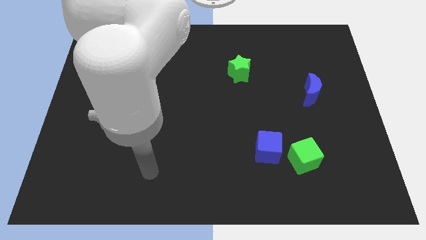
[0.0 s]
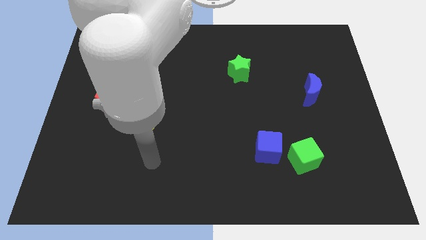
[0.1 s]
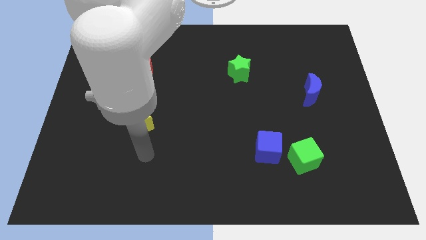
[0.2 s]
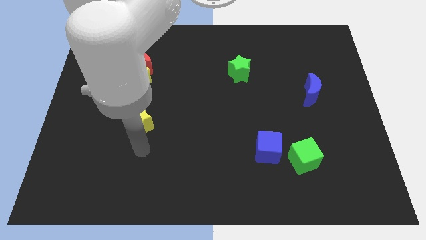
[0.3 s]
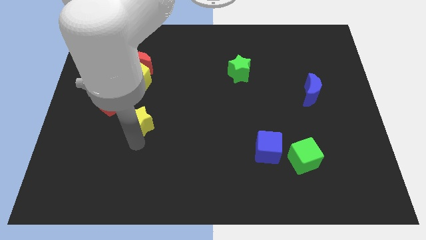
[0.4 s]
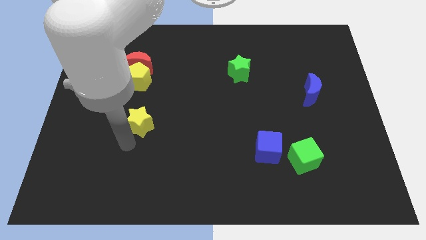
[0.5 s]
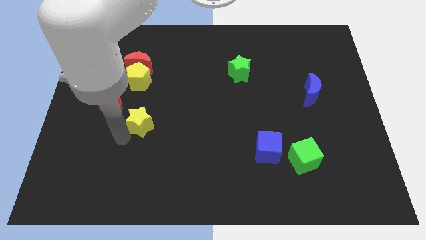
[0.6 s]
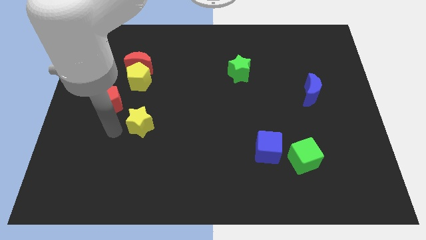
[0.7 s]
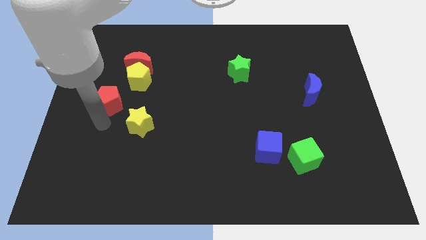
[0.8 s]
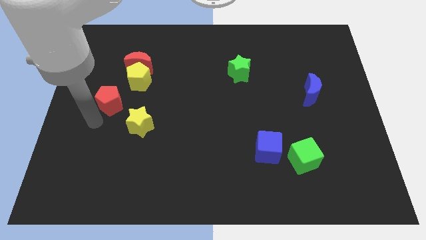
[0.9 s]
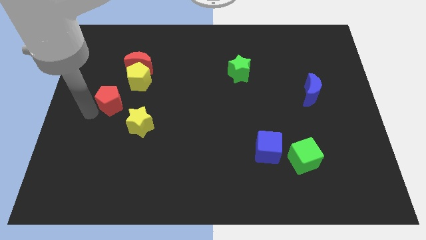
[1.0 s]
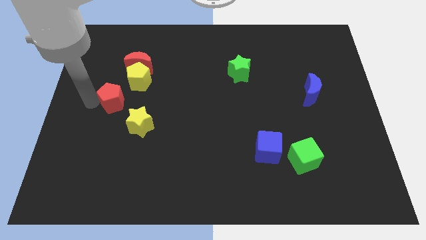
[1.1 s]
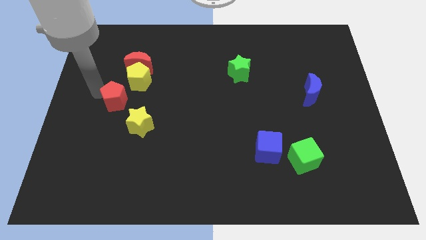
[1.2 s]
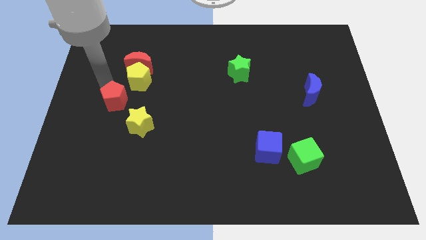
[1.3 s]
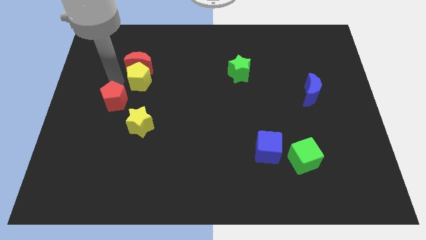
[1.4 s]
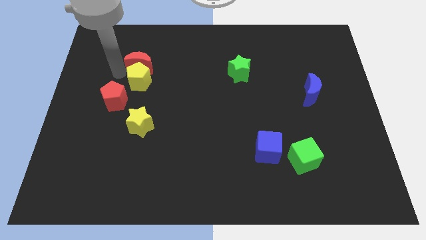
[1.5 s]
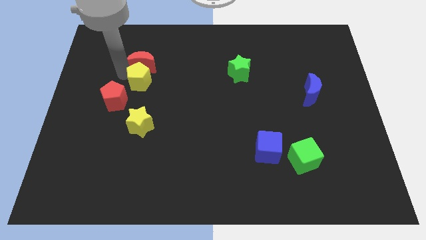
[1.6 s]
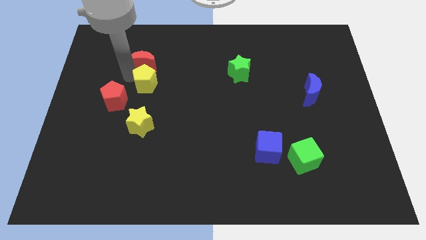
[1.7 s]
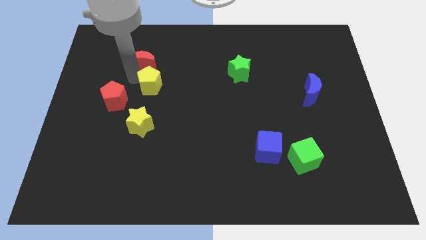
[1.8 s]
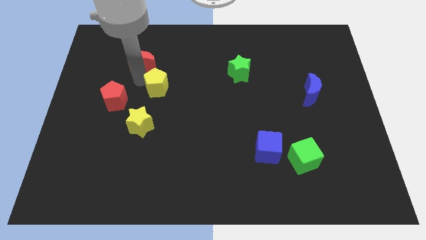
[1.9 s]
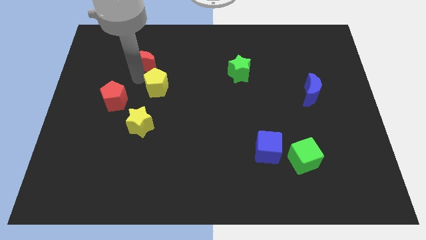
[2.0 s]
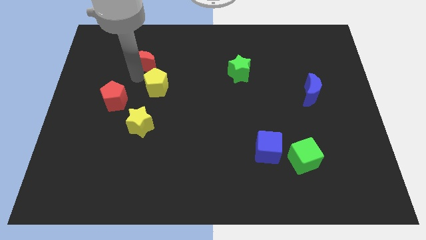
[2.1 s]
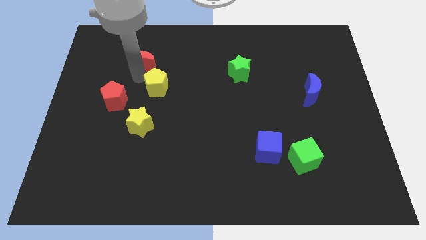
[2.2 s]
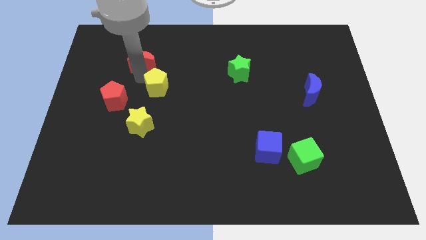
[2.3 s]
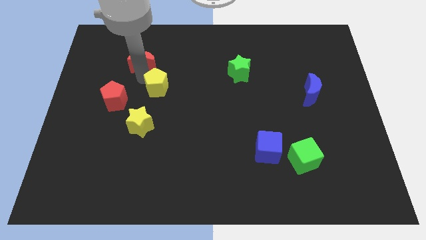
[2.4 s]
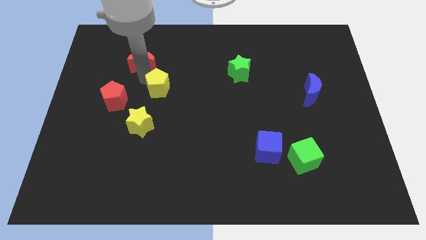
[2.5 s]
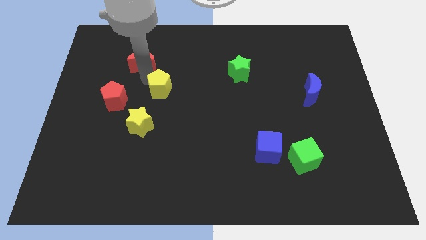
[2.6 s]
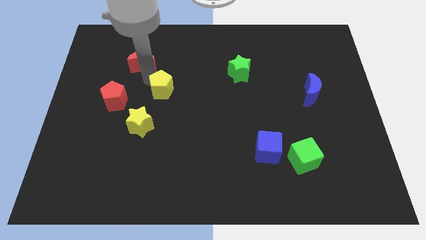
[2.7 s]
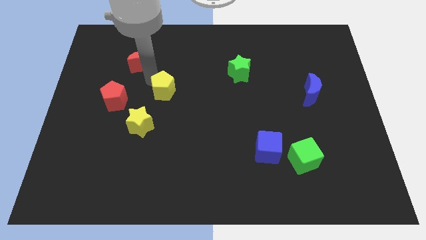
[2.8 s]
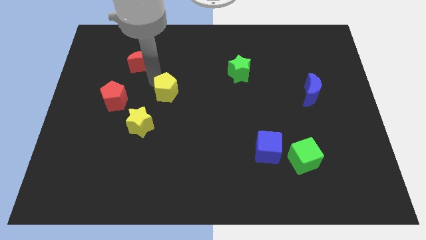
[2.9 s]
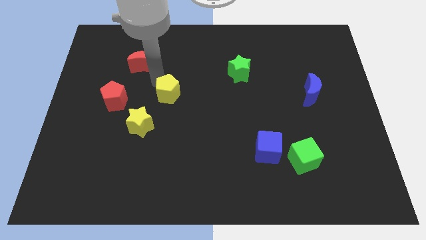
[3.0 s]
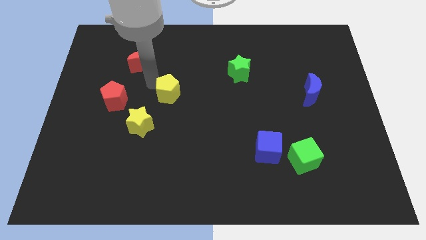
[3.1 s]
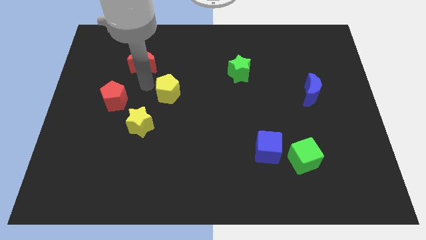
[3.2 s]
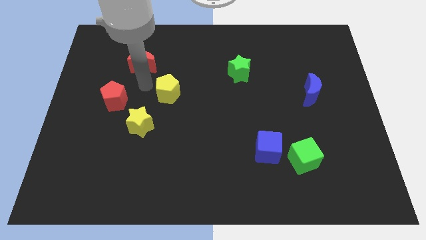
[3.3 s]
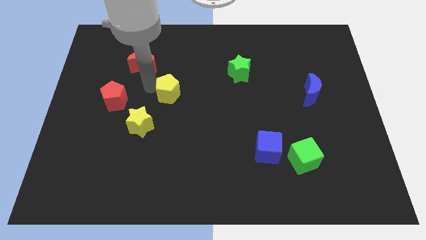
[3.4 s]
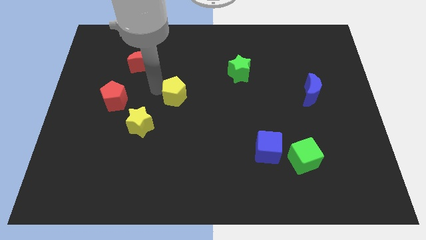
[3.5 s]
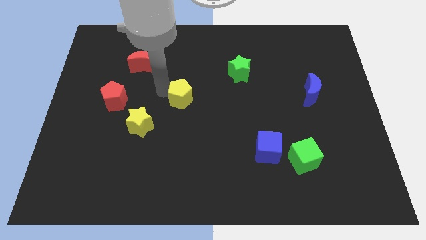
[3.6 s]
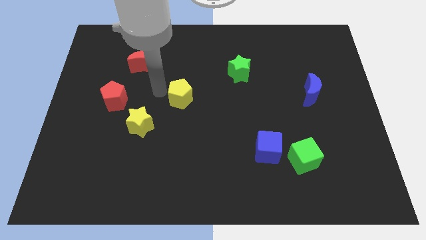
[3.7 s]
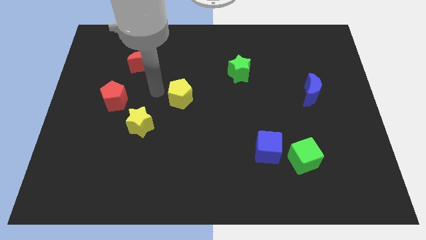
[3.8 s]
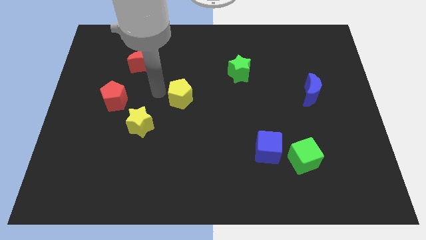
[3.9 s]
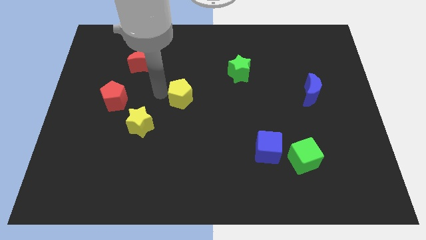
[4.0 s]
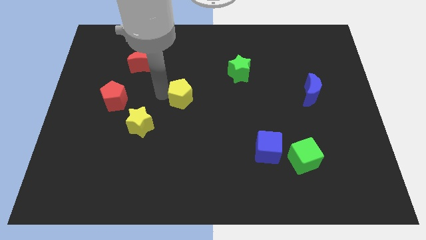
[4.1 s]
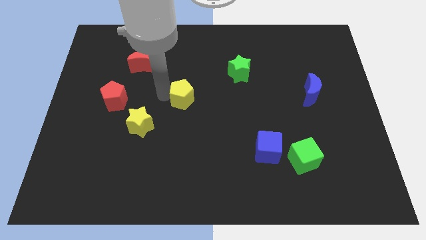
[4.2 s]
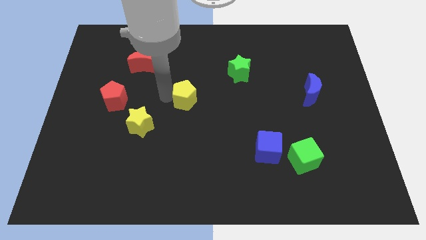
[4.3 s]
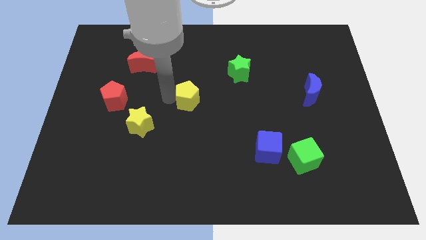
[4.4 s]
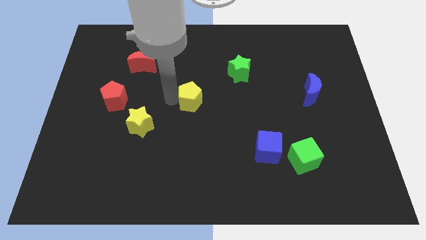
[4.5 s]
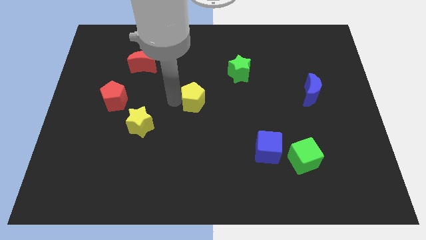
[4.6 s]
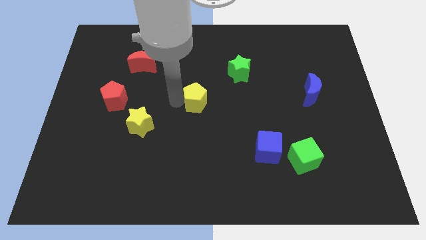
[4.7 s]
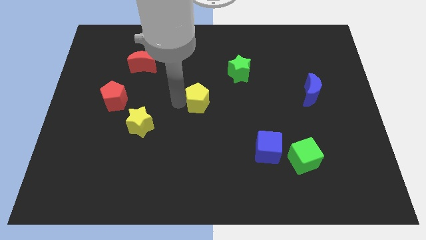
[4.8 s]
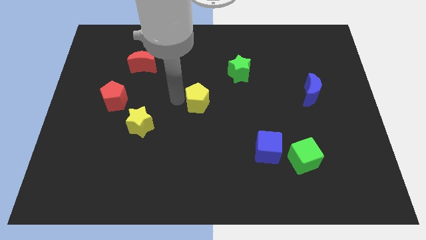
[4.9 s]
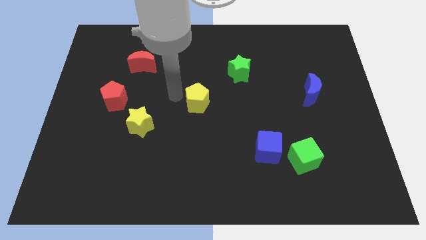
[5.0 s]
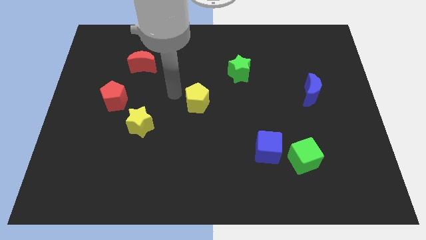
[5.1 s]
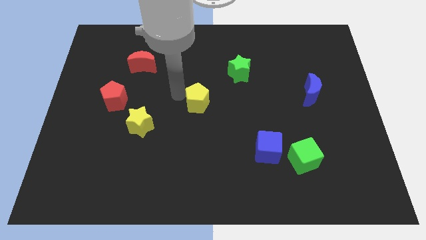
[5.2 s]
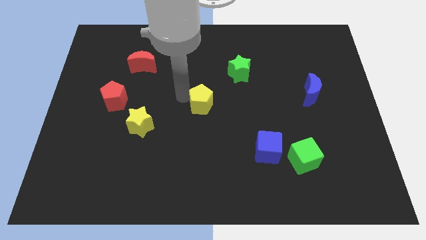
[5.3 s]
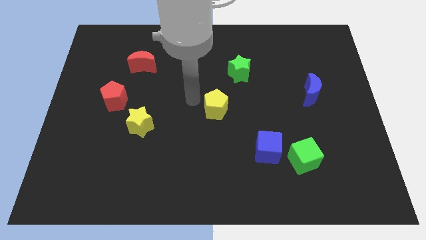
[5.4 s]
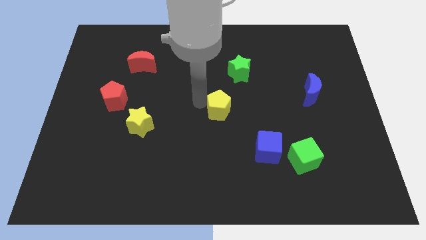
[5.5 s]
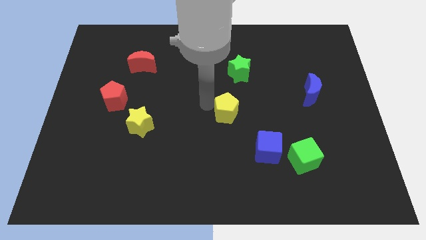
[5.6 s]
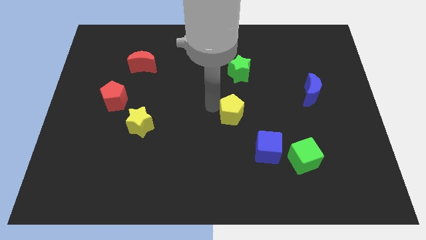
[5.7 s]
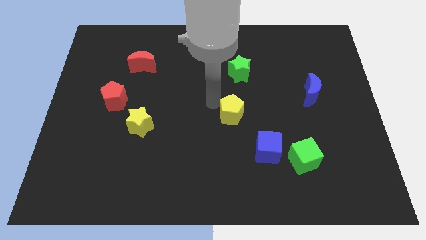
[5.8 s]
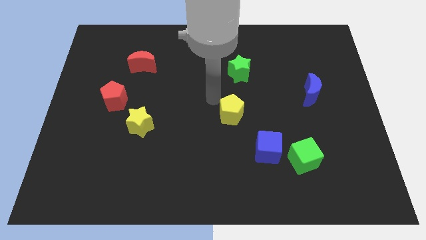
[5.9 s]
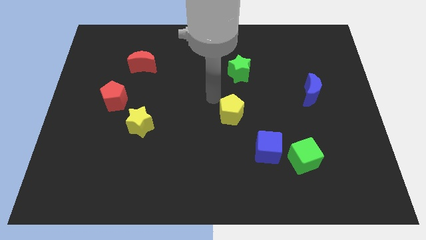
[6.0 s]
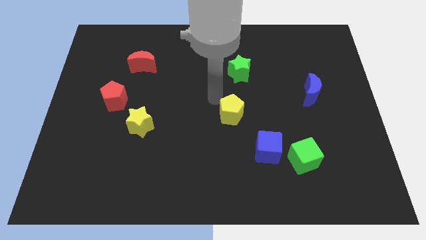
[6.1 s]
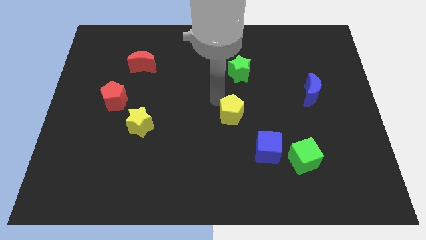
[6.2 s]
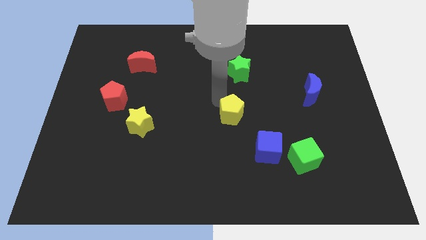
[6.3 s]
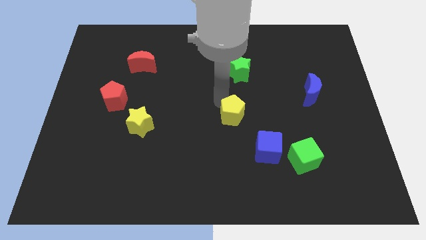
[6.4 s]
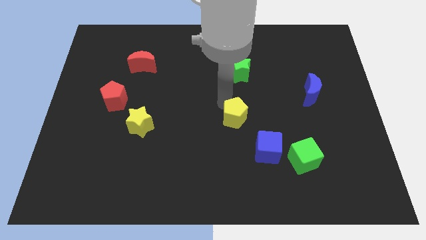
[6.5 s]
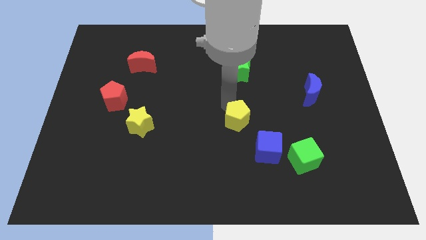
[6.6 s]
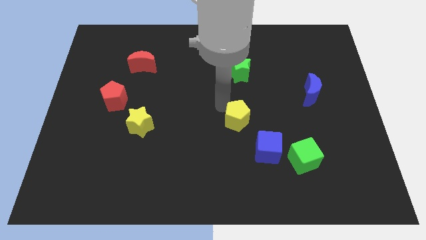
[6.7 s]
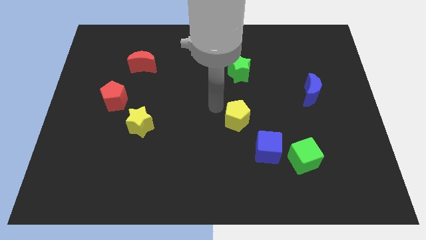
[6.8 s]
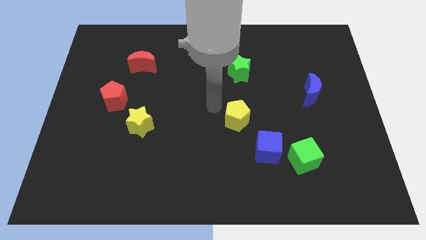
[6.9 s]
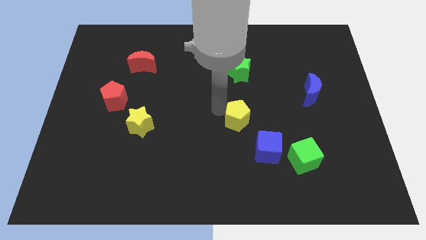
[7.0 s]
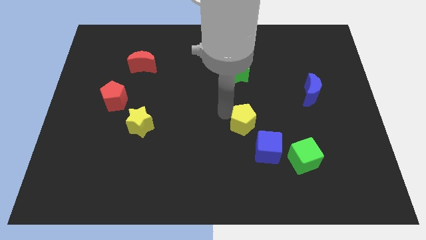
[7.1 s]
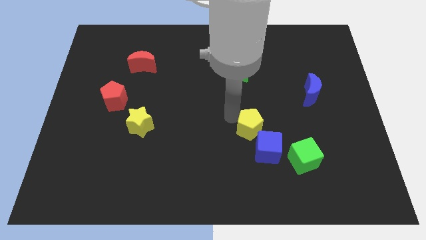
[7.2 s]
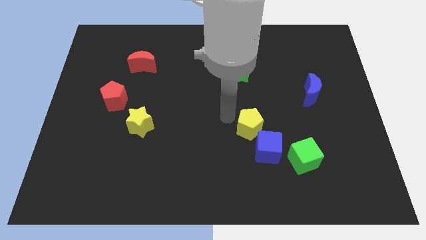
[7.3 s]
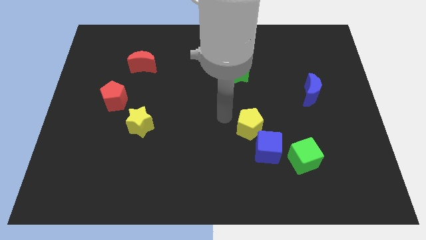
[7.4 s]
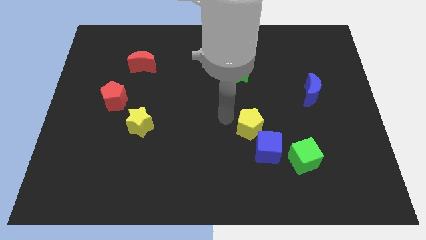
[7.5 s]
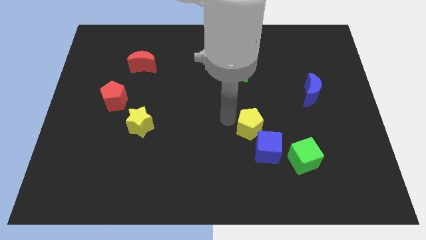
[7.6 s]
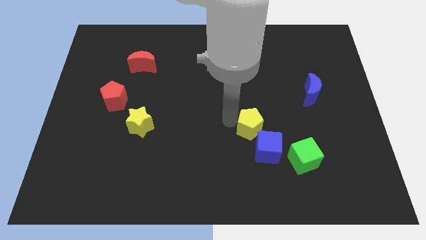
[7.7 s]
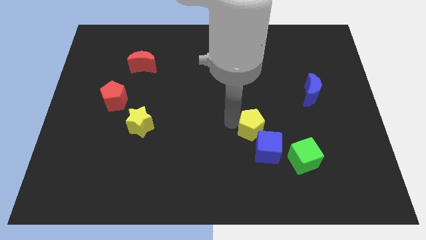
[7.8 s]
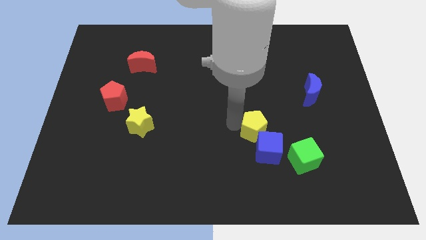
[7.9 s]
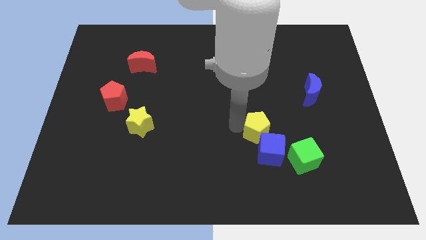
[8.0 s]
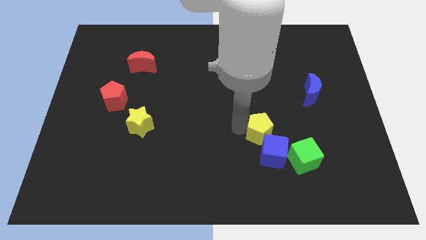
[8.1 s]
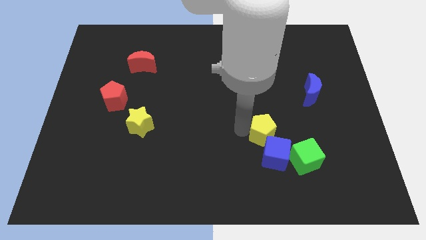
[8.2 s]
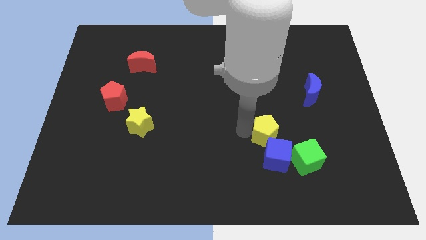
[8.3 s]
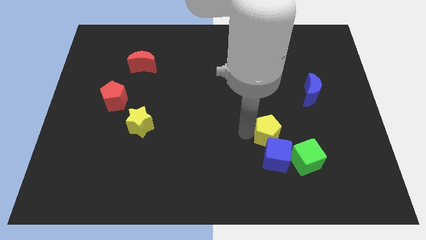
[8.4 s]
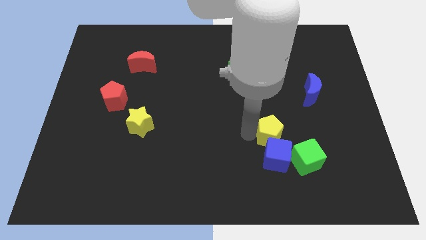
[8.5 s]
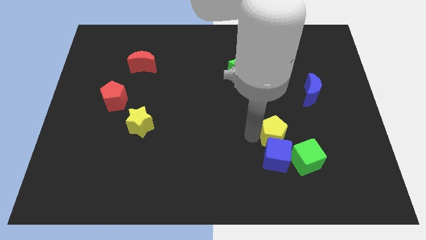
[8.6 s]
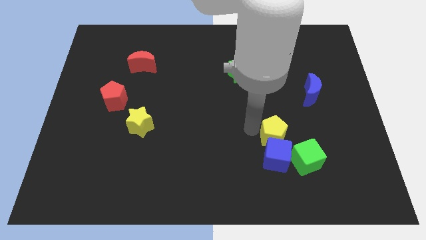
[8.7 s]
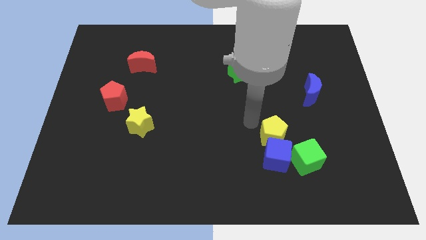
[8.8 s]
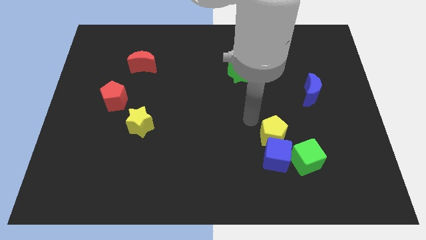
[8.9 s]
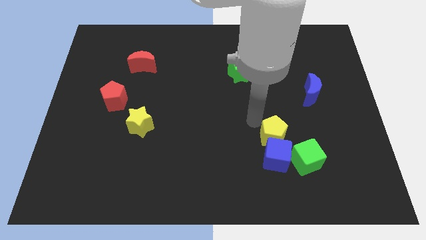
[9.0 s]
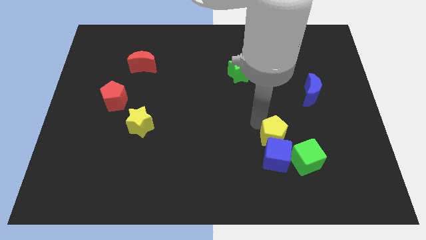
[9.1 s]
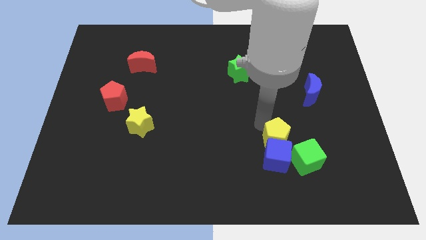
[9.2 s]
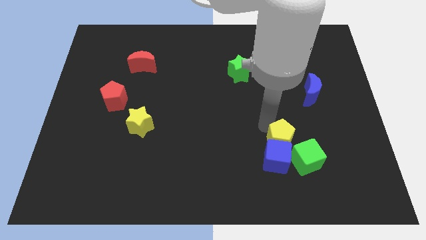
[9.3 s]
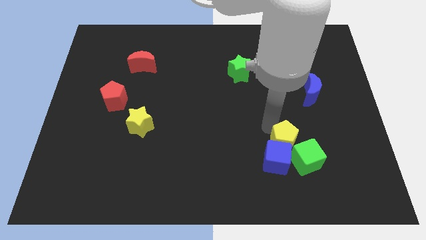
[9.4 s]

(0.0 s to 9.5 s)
put the yellow pentagon towards the green cube
